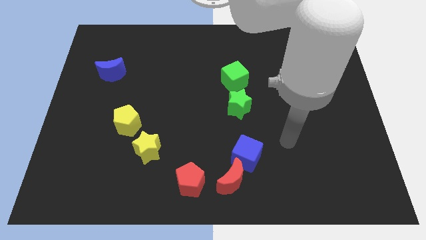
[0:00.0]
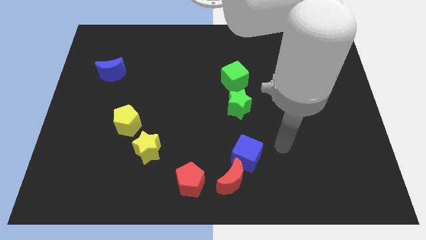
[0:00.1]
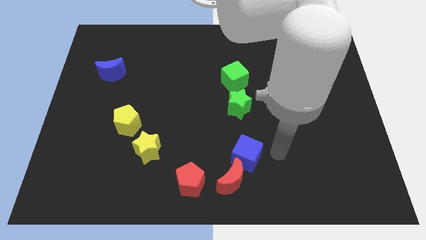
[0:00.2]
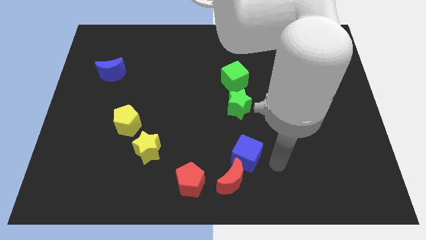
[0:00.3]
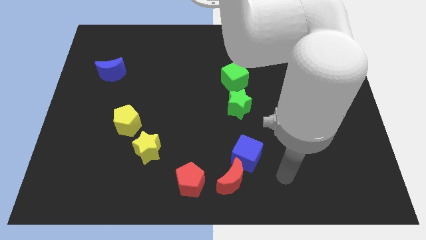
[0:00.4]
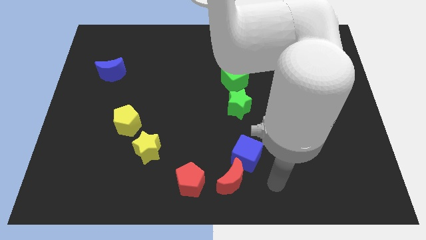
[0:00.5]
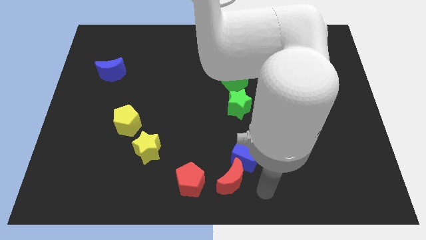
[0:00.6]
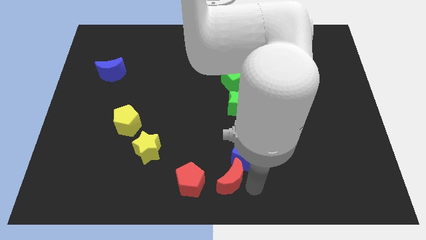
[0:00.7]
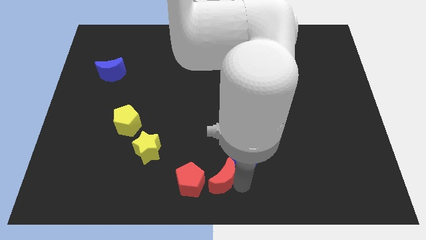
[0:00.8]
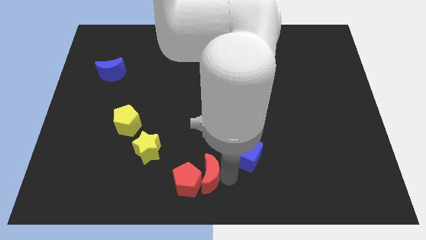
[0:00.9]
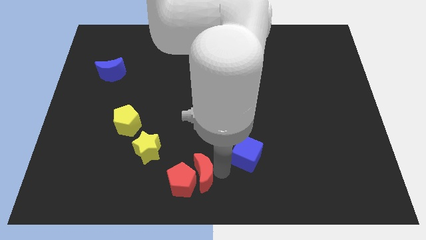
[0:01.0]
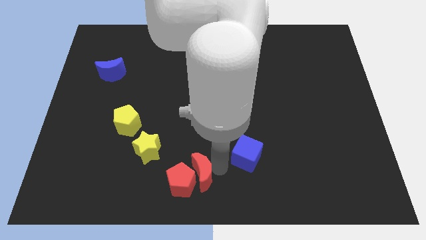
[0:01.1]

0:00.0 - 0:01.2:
pull the blue cube apart from the red moon

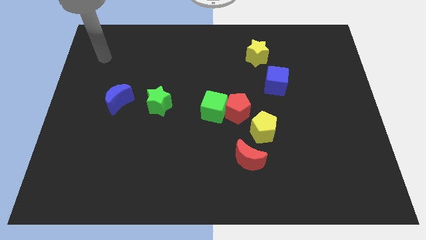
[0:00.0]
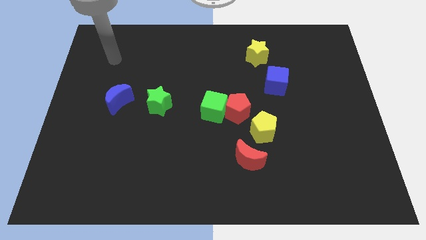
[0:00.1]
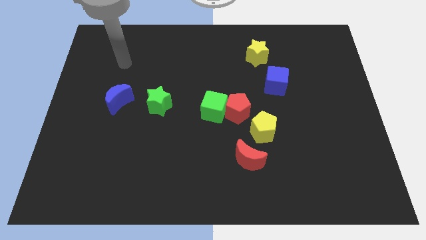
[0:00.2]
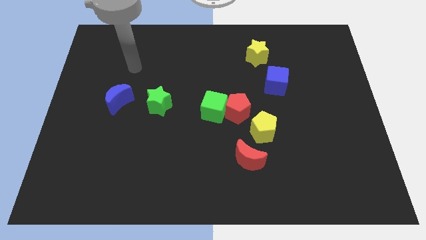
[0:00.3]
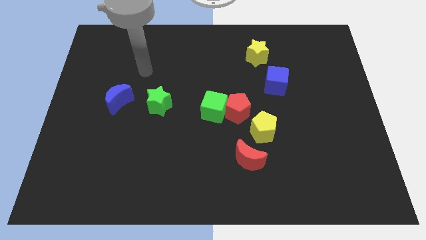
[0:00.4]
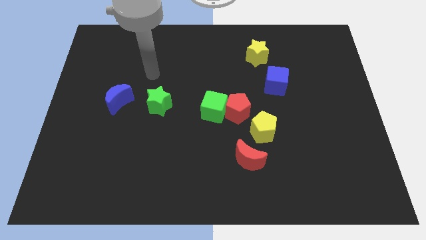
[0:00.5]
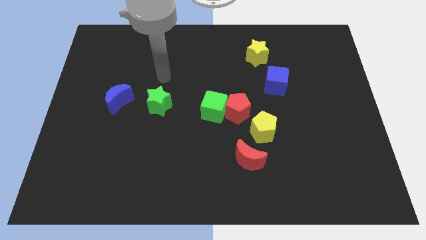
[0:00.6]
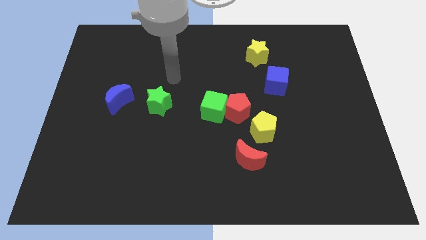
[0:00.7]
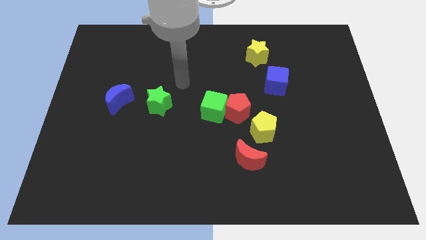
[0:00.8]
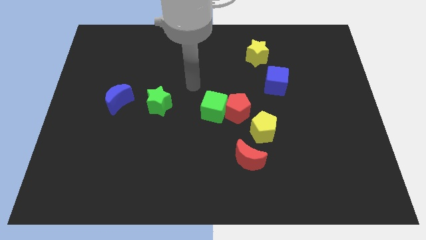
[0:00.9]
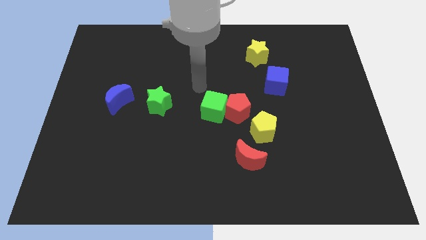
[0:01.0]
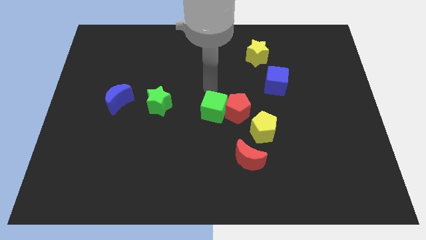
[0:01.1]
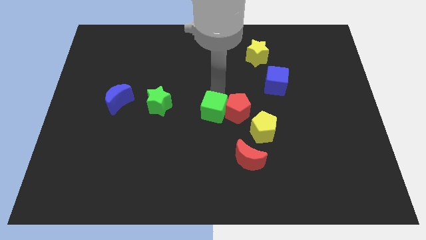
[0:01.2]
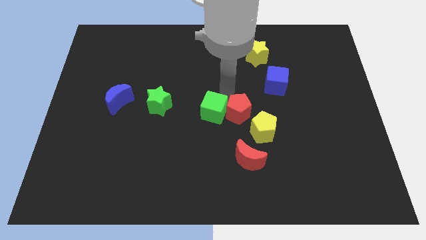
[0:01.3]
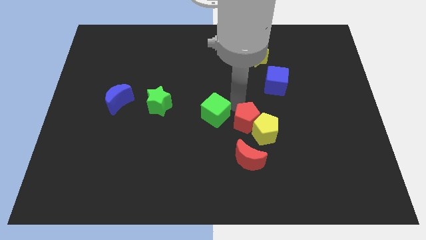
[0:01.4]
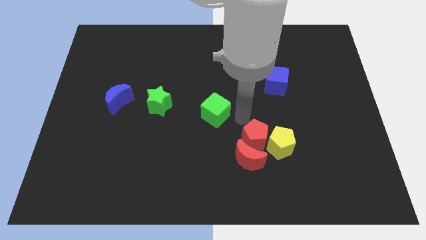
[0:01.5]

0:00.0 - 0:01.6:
pull the green cube apart from the red pentagon

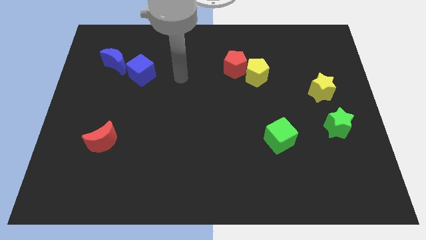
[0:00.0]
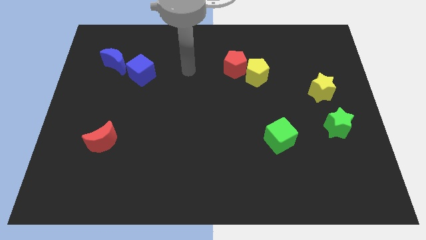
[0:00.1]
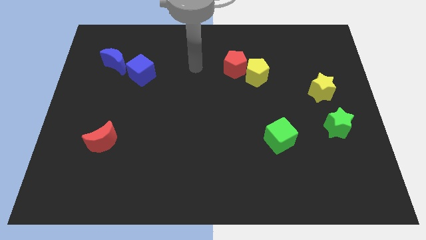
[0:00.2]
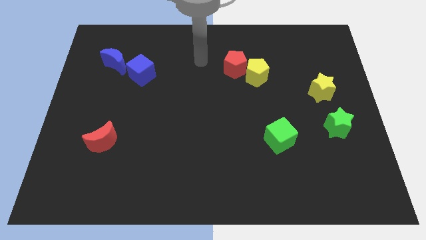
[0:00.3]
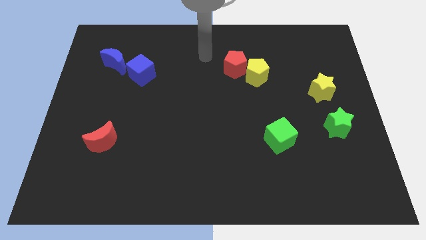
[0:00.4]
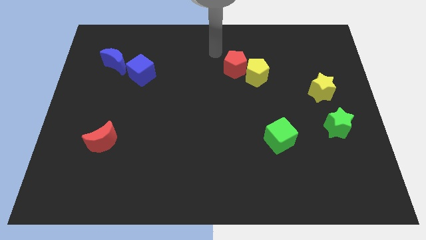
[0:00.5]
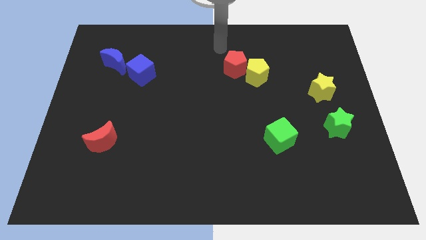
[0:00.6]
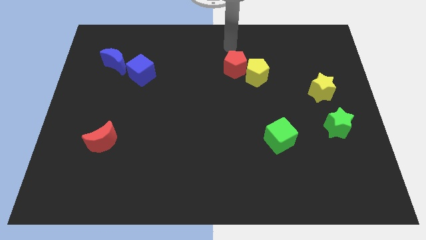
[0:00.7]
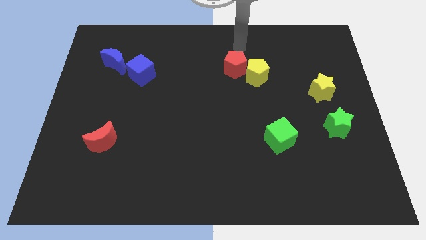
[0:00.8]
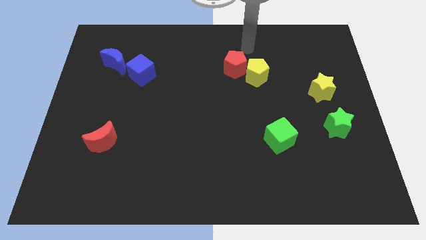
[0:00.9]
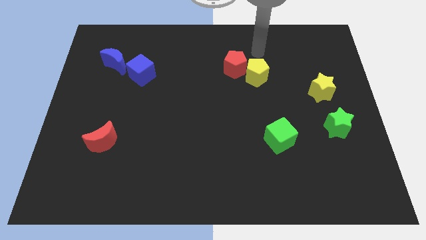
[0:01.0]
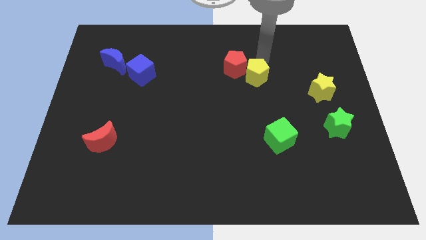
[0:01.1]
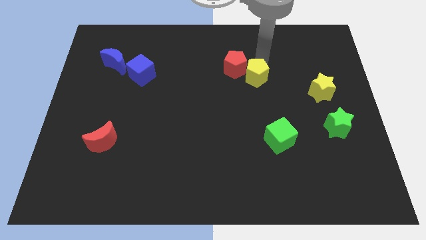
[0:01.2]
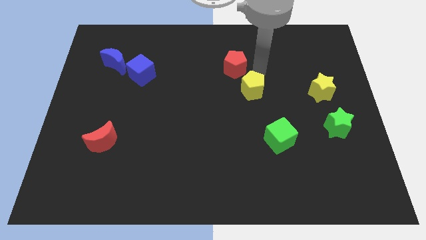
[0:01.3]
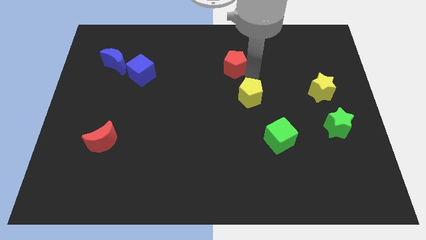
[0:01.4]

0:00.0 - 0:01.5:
pull the red pentagon apart from the yellow pentagon

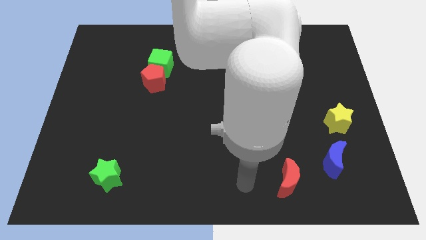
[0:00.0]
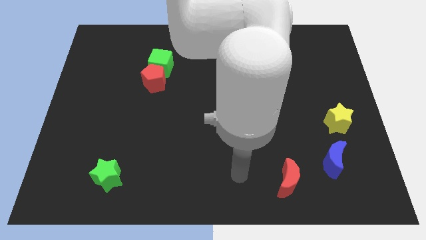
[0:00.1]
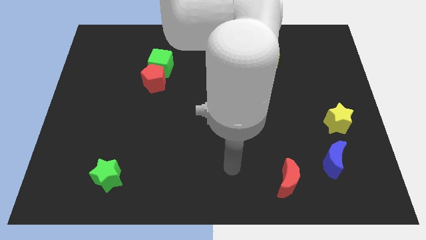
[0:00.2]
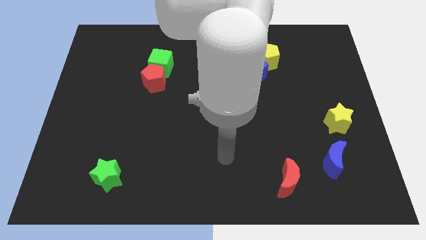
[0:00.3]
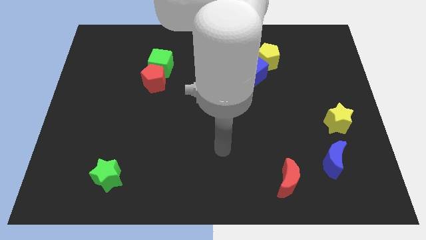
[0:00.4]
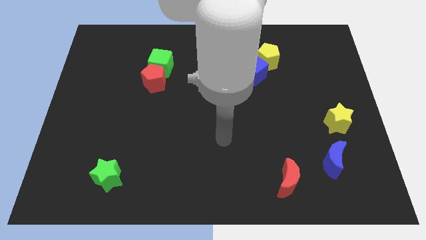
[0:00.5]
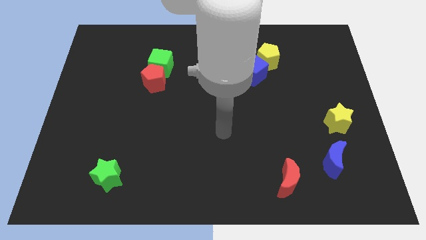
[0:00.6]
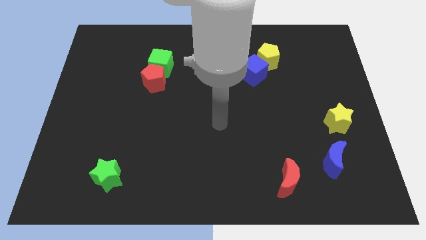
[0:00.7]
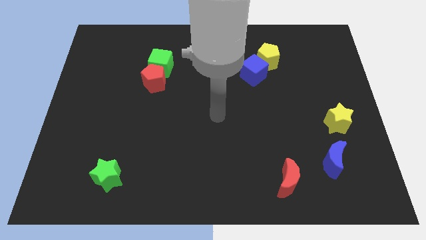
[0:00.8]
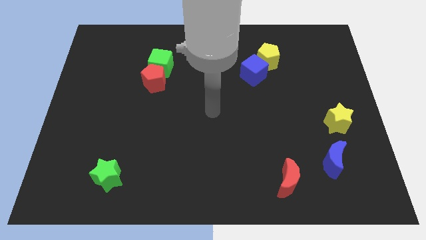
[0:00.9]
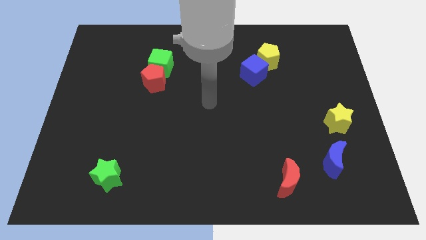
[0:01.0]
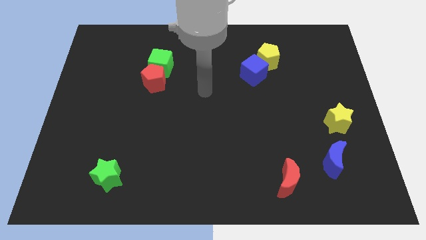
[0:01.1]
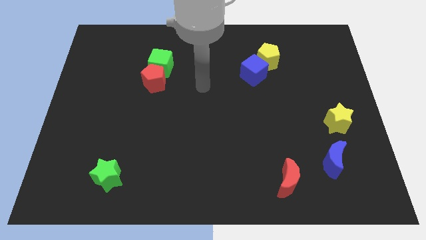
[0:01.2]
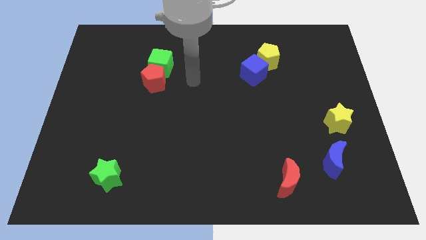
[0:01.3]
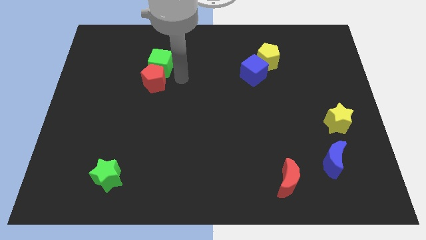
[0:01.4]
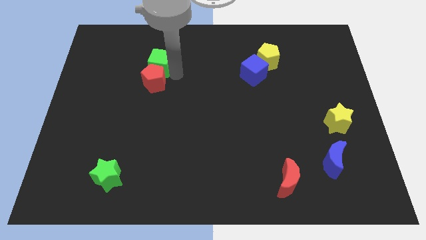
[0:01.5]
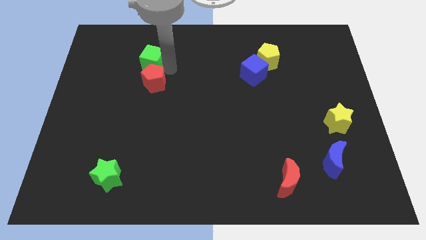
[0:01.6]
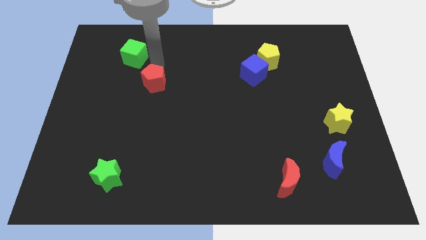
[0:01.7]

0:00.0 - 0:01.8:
move the red pentagon away from the green cube

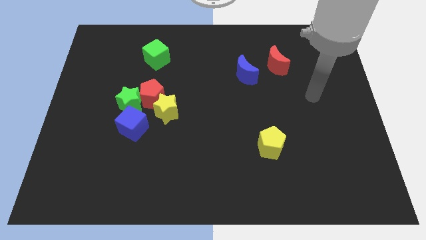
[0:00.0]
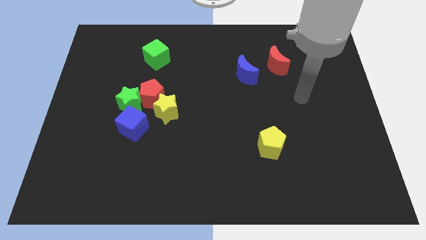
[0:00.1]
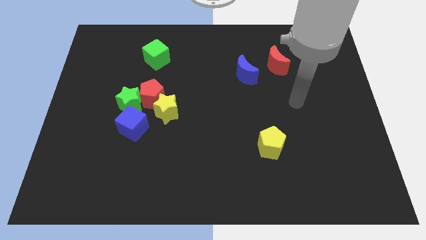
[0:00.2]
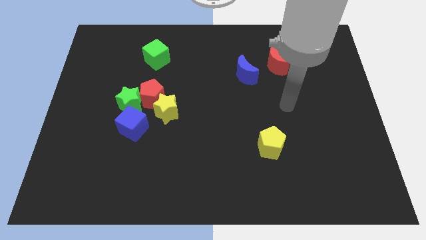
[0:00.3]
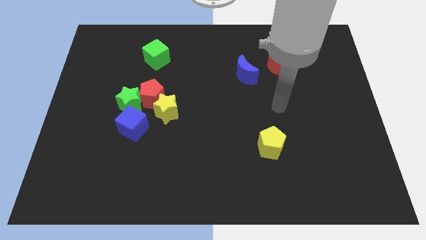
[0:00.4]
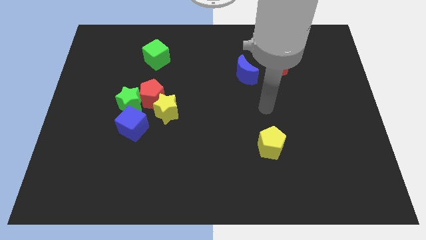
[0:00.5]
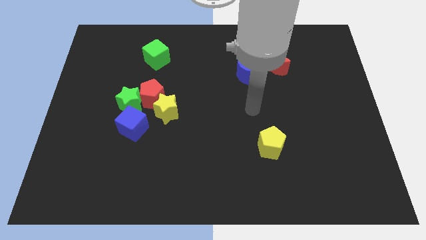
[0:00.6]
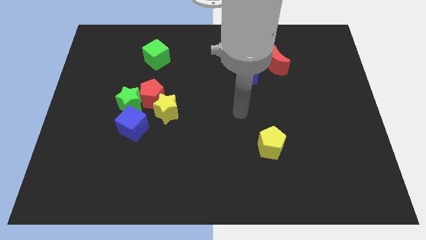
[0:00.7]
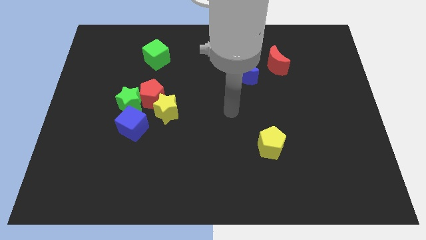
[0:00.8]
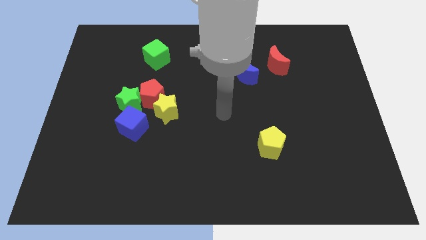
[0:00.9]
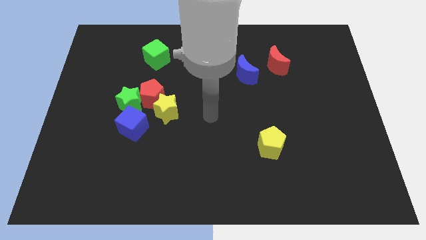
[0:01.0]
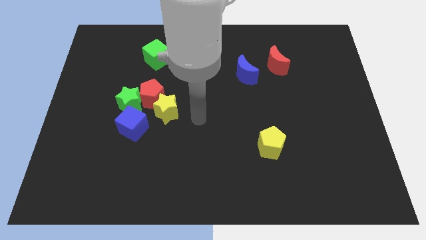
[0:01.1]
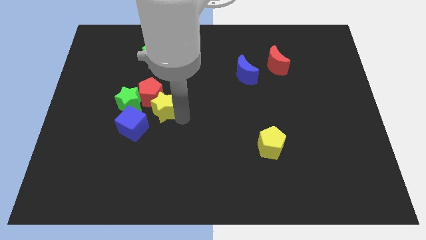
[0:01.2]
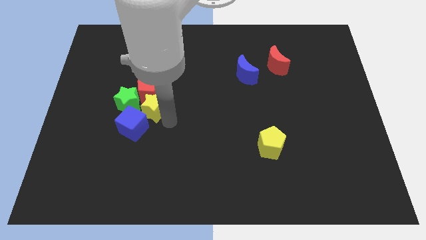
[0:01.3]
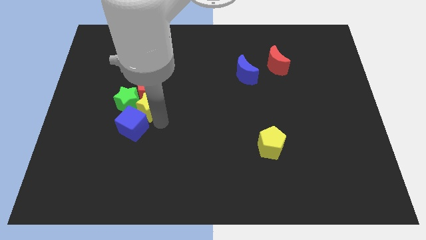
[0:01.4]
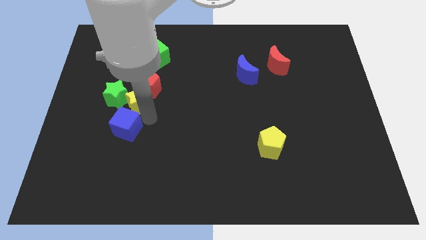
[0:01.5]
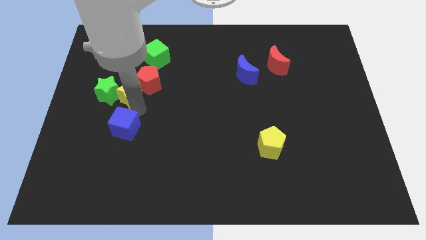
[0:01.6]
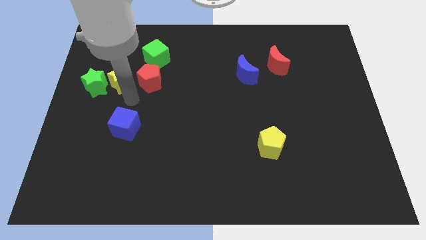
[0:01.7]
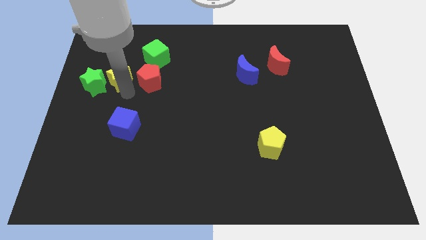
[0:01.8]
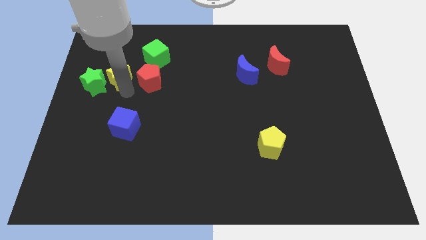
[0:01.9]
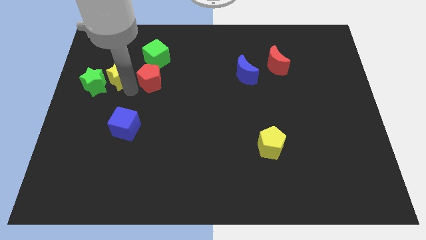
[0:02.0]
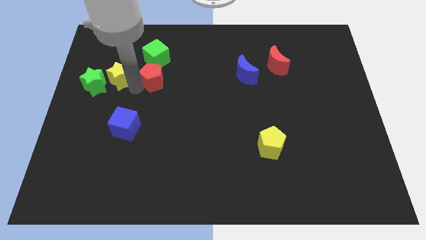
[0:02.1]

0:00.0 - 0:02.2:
move the red pentagon away from the green star, yellow star, and blue cube

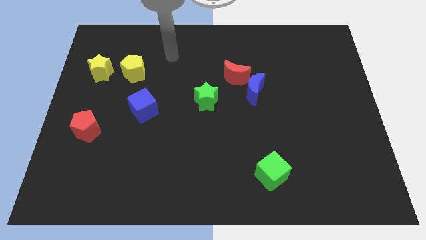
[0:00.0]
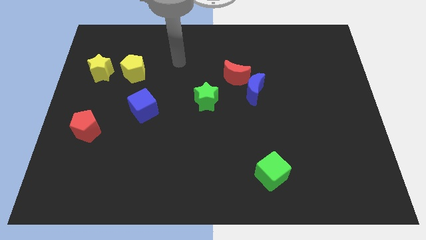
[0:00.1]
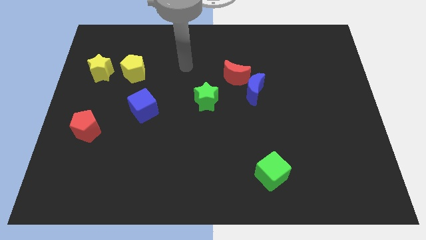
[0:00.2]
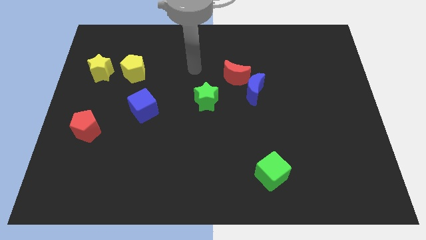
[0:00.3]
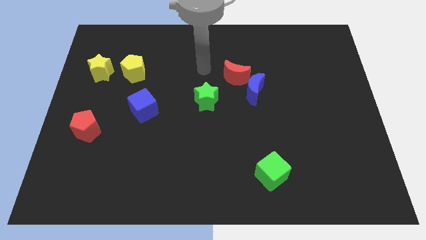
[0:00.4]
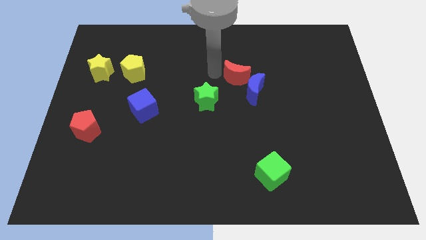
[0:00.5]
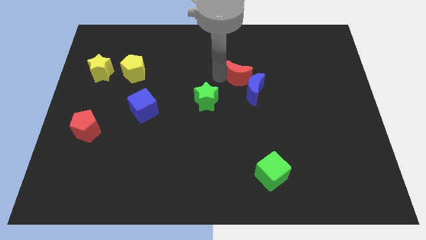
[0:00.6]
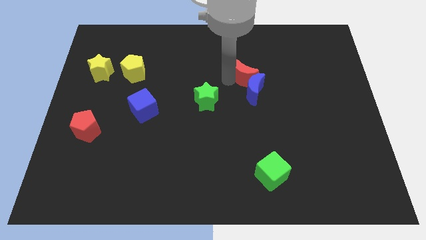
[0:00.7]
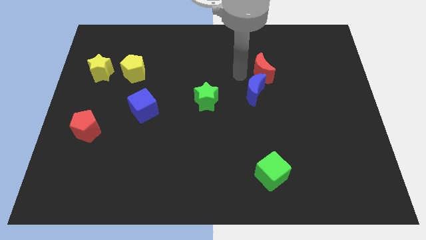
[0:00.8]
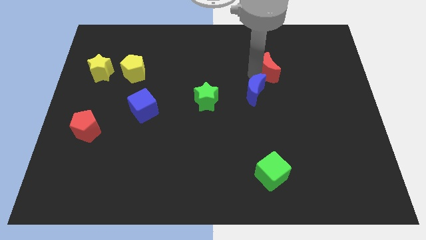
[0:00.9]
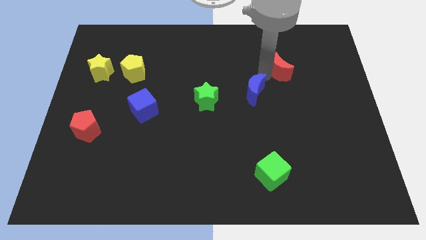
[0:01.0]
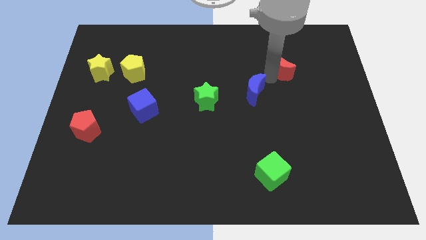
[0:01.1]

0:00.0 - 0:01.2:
move the blue moon away from the red moon

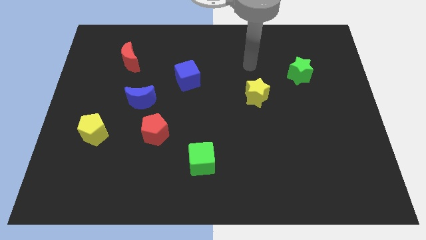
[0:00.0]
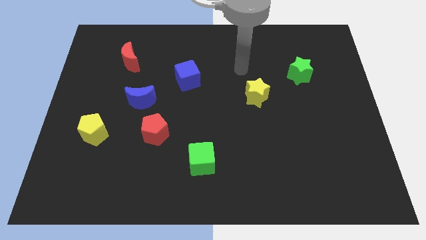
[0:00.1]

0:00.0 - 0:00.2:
pull the red pentagon apart from the blue moon
